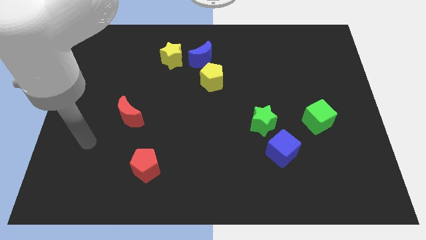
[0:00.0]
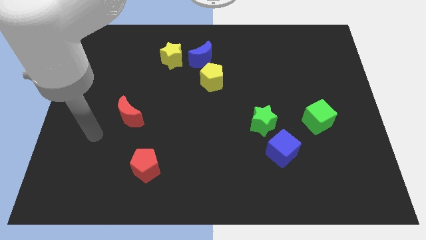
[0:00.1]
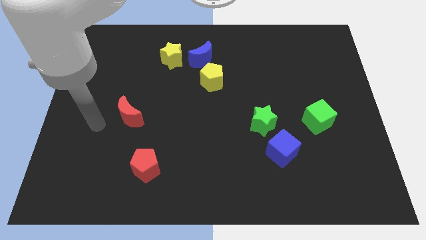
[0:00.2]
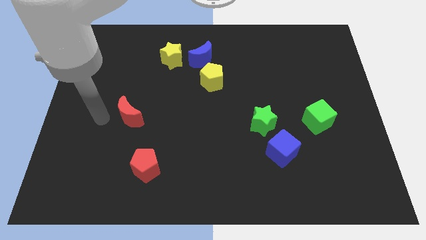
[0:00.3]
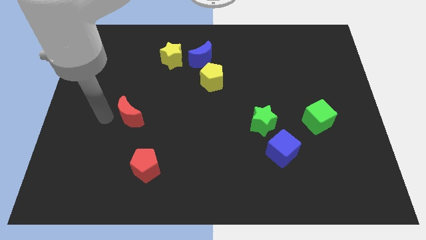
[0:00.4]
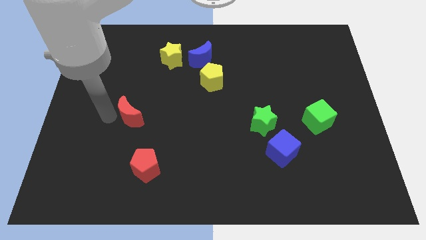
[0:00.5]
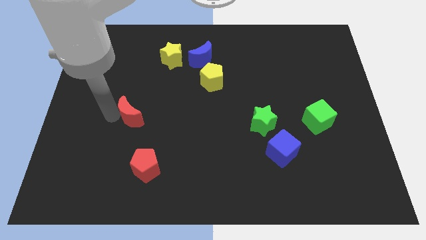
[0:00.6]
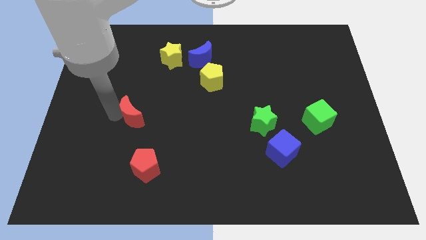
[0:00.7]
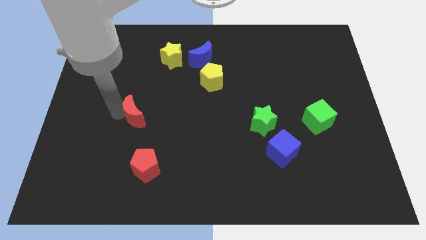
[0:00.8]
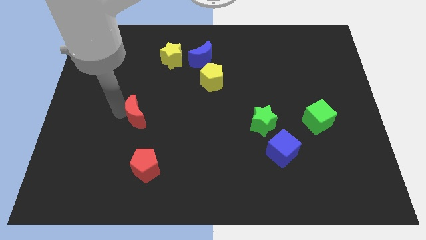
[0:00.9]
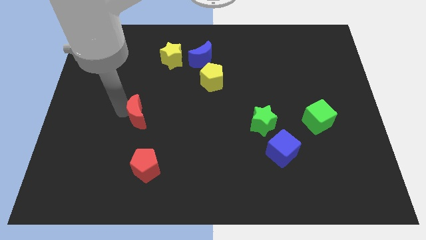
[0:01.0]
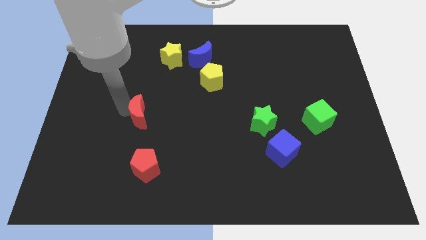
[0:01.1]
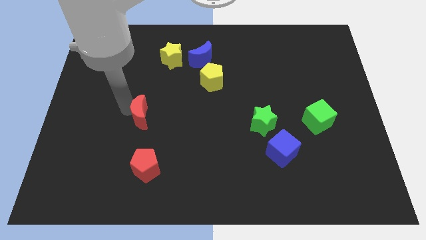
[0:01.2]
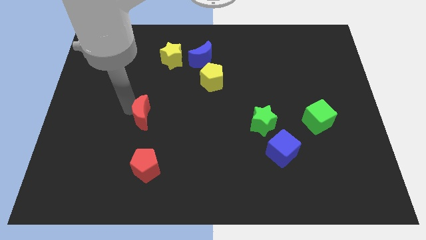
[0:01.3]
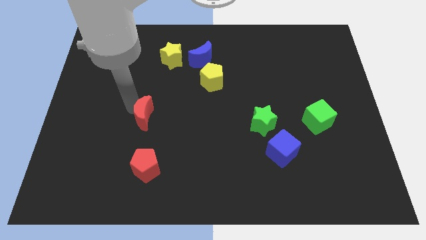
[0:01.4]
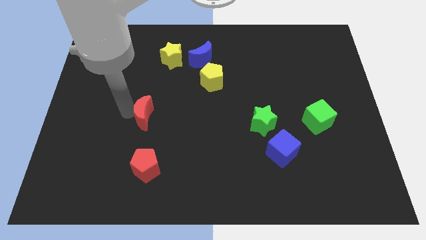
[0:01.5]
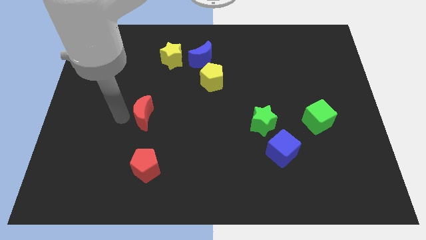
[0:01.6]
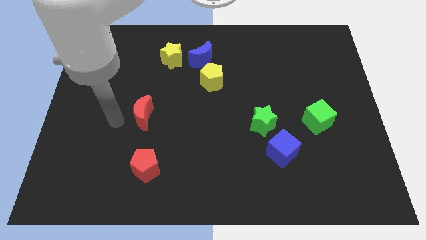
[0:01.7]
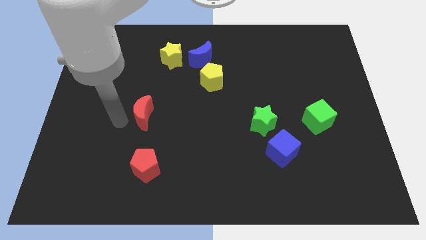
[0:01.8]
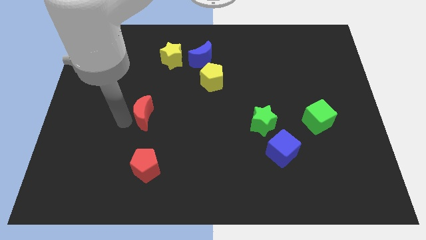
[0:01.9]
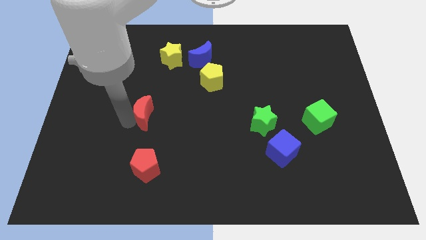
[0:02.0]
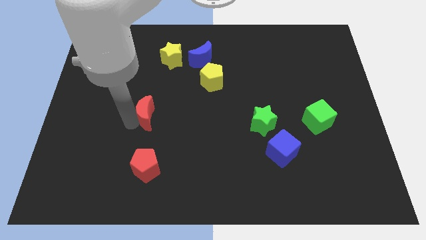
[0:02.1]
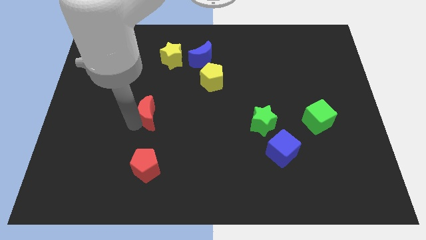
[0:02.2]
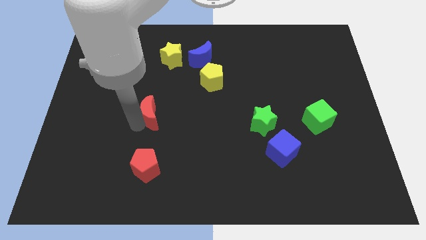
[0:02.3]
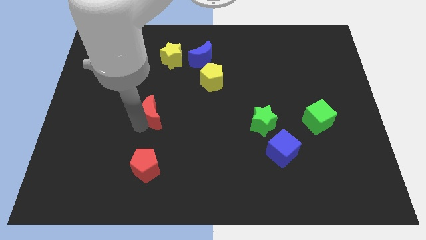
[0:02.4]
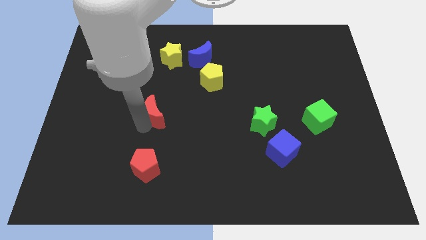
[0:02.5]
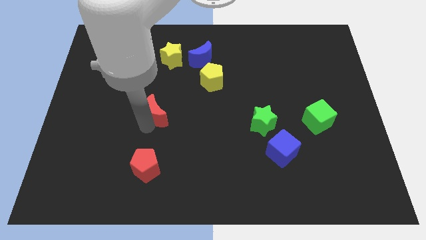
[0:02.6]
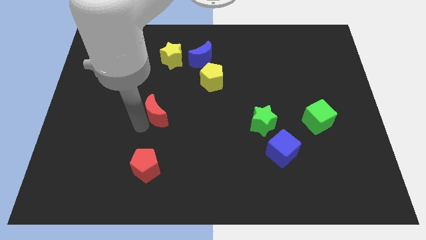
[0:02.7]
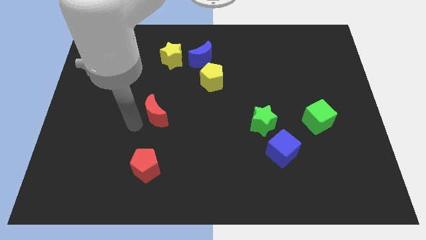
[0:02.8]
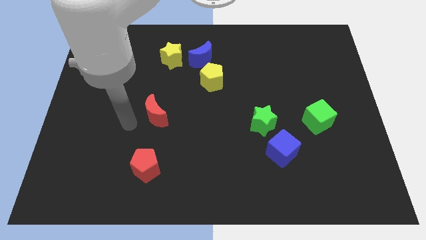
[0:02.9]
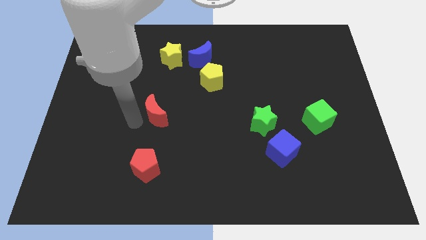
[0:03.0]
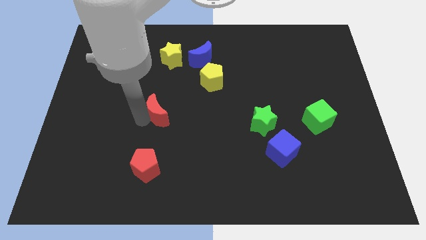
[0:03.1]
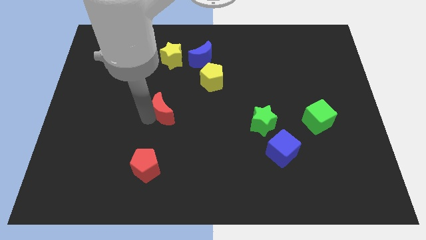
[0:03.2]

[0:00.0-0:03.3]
move the red moon a little right

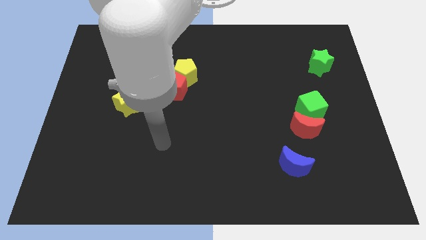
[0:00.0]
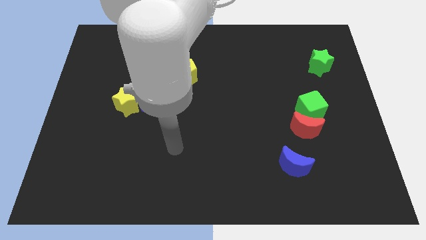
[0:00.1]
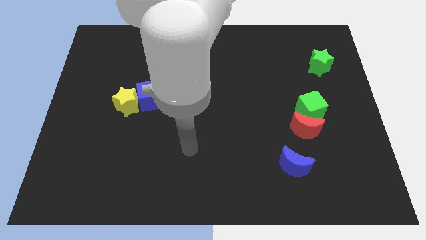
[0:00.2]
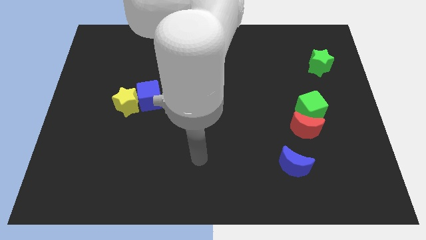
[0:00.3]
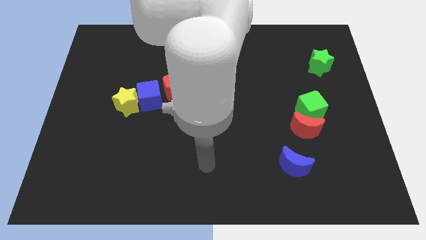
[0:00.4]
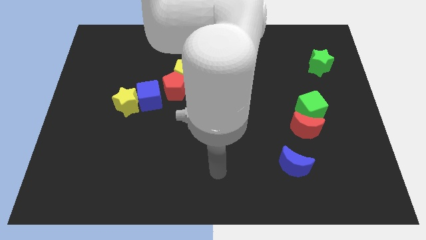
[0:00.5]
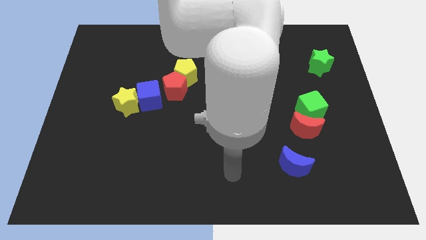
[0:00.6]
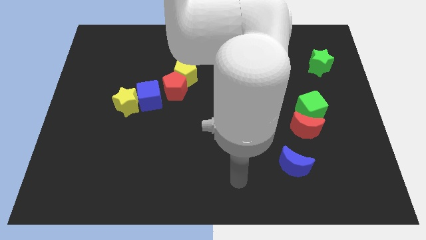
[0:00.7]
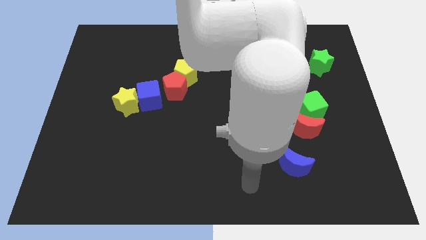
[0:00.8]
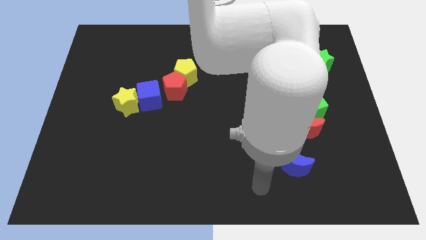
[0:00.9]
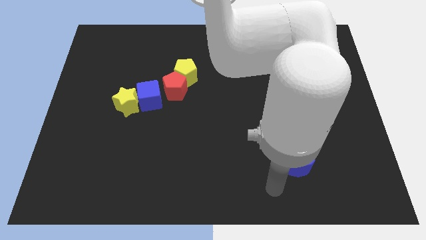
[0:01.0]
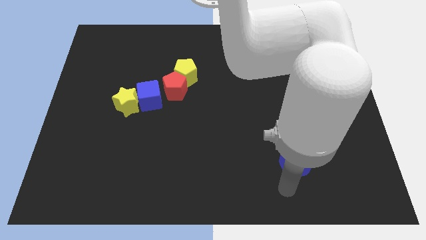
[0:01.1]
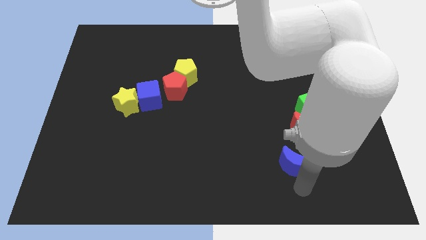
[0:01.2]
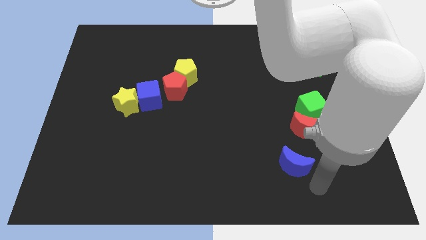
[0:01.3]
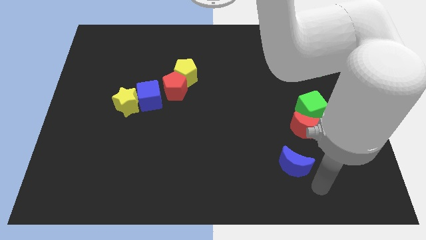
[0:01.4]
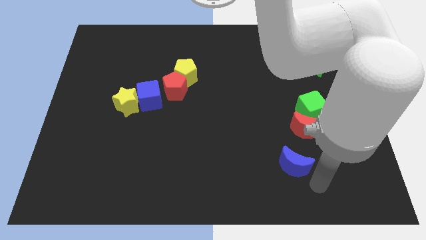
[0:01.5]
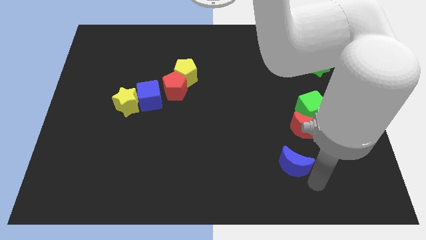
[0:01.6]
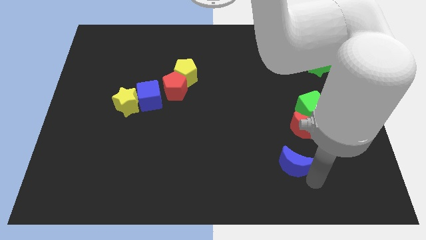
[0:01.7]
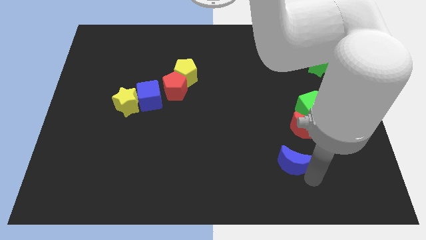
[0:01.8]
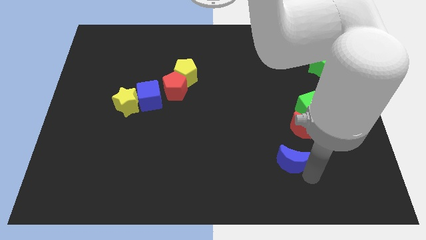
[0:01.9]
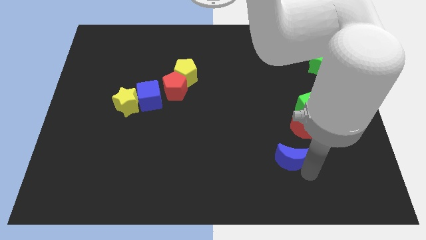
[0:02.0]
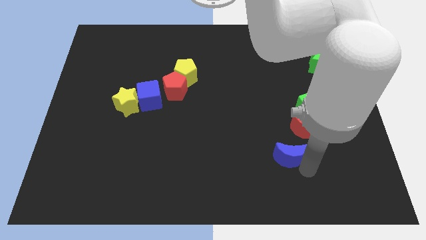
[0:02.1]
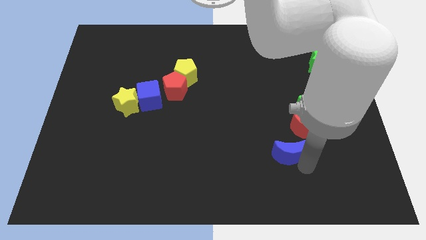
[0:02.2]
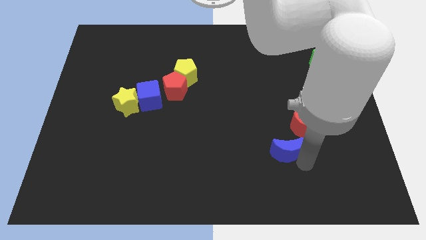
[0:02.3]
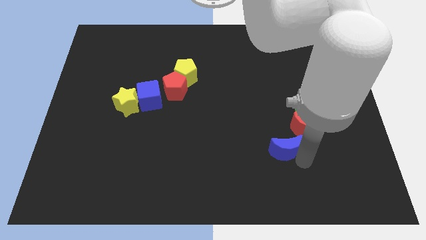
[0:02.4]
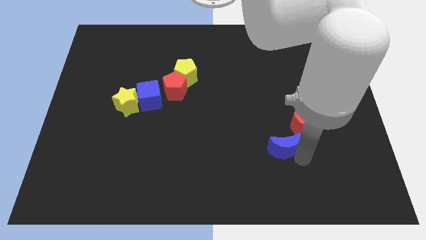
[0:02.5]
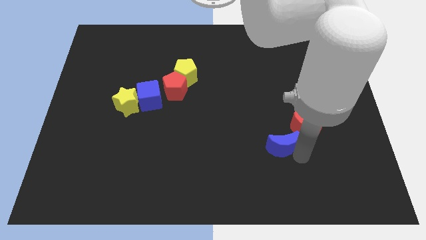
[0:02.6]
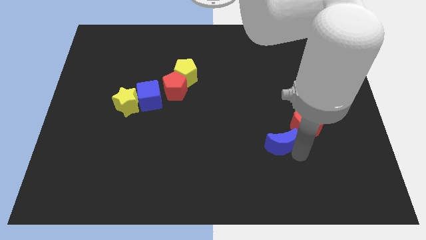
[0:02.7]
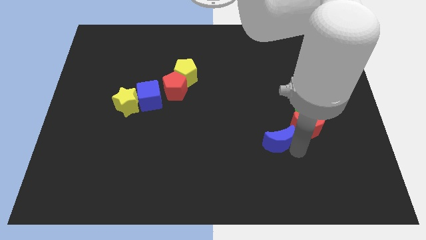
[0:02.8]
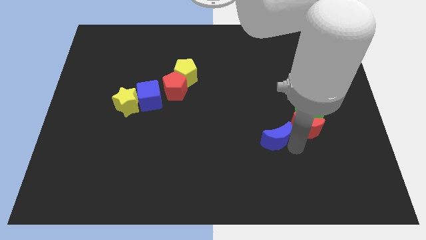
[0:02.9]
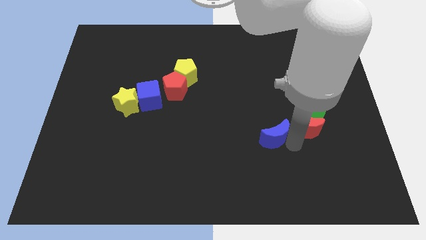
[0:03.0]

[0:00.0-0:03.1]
push the blue moon upwards and then to the left somewhat

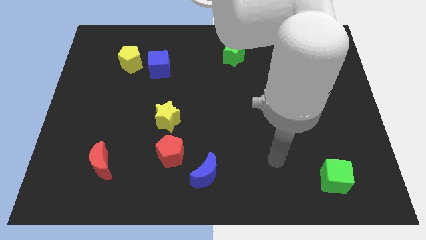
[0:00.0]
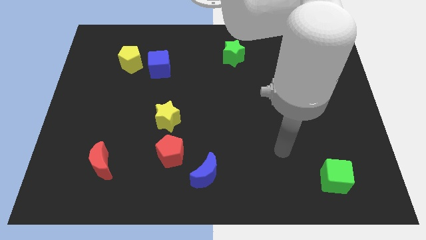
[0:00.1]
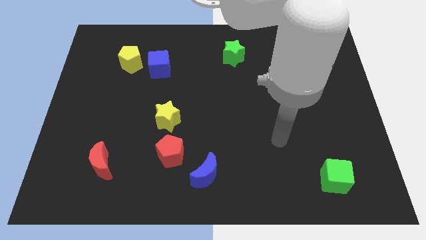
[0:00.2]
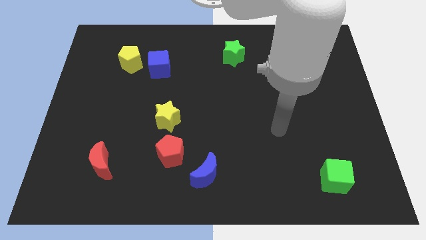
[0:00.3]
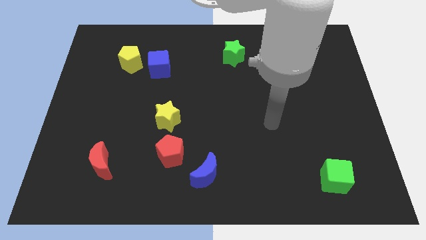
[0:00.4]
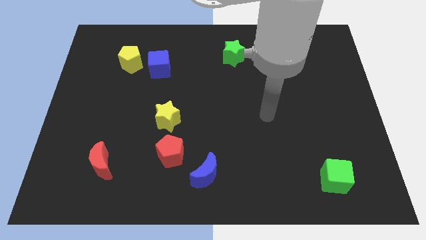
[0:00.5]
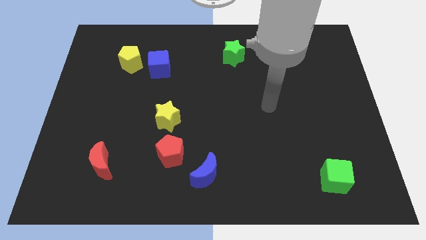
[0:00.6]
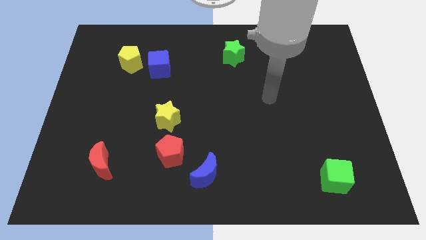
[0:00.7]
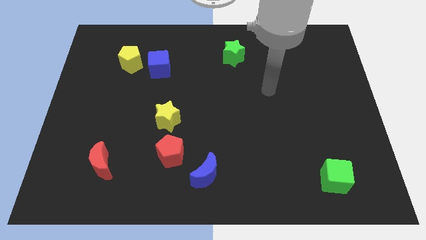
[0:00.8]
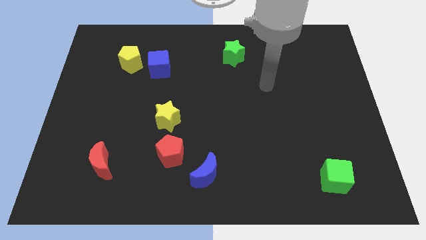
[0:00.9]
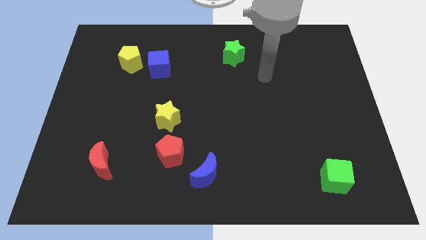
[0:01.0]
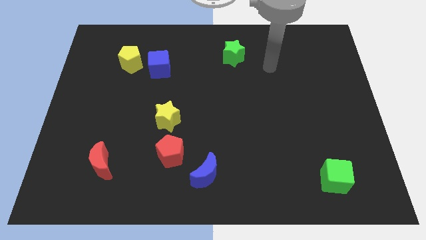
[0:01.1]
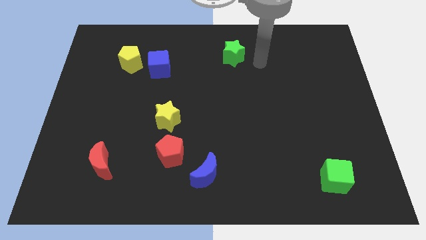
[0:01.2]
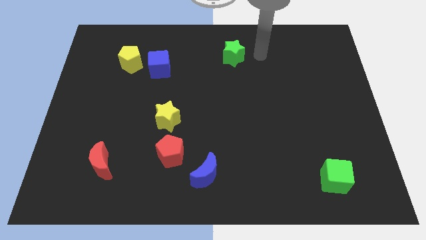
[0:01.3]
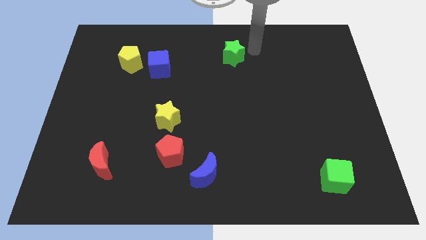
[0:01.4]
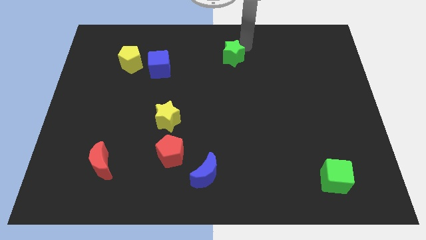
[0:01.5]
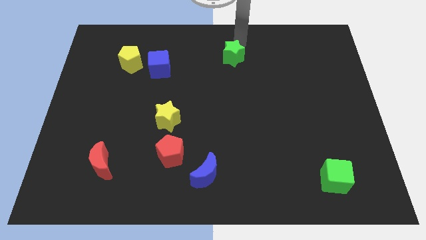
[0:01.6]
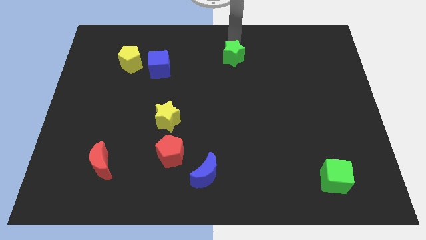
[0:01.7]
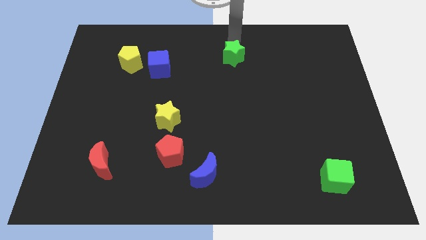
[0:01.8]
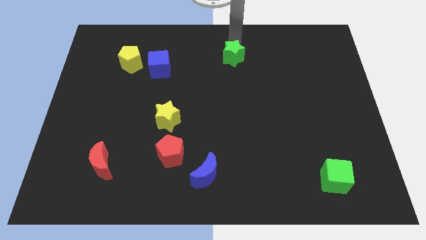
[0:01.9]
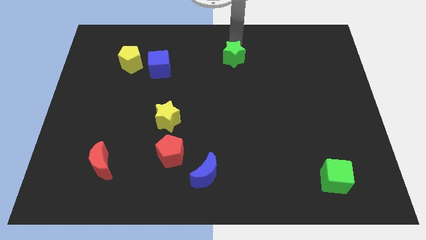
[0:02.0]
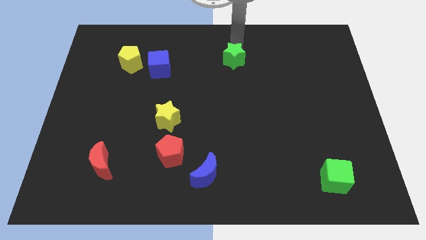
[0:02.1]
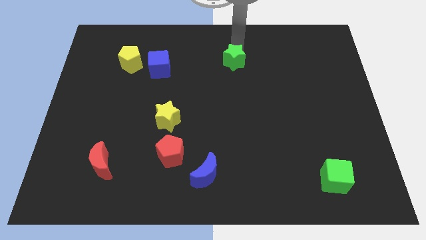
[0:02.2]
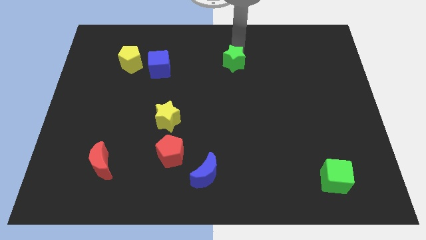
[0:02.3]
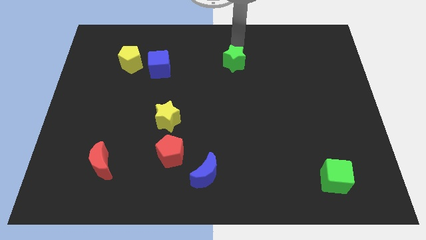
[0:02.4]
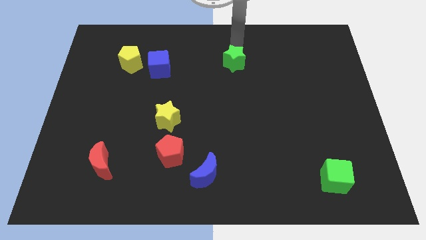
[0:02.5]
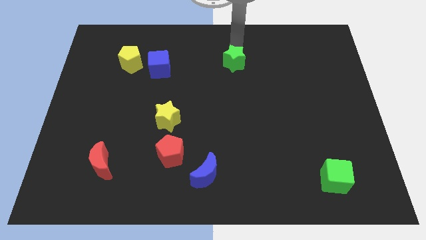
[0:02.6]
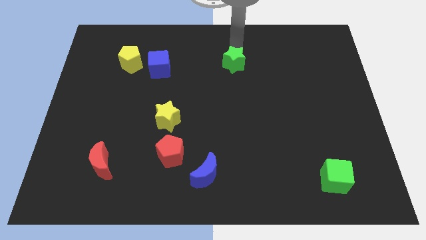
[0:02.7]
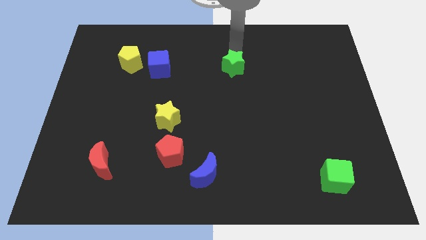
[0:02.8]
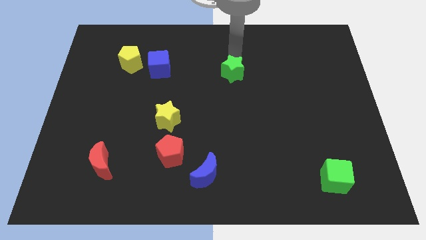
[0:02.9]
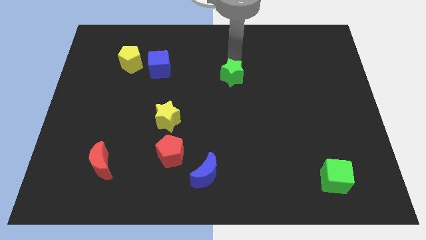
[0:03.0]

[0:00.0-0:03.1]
move the green star slightly down
